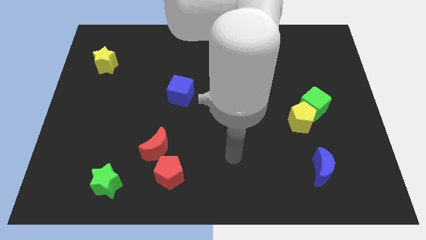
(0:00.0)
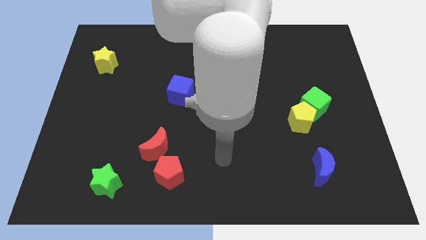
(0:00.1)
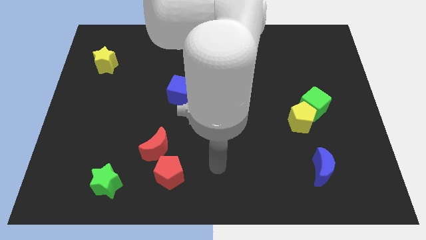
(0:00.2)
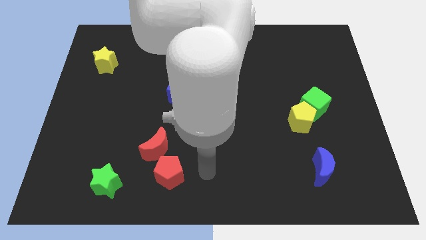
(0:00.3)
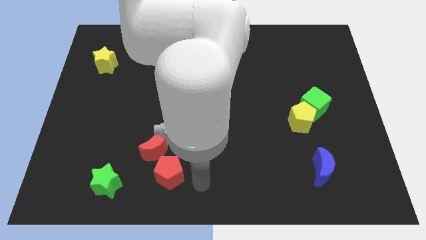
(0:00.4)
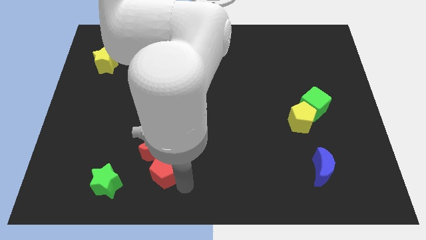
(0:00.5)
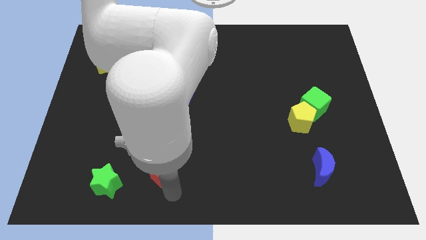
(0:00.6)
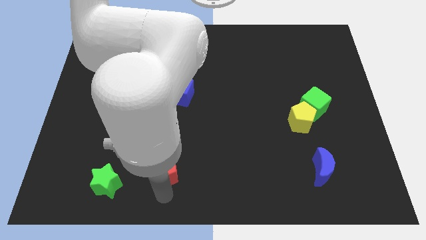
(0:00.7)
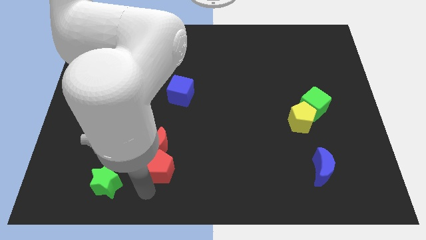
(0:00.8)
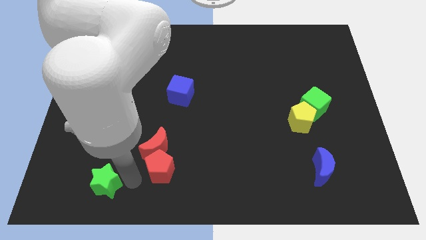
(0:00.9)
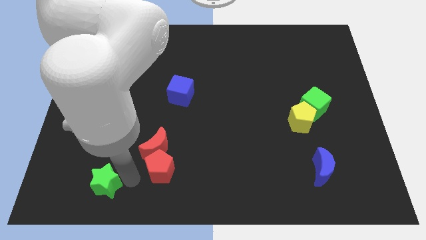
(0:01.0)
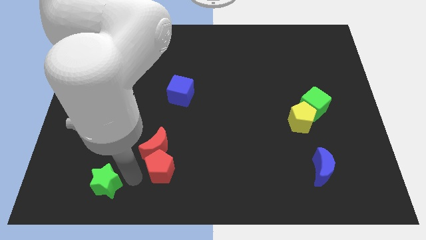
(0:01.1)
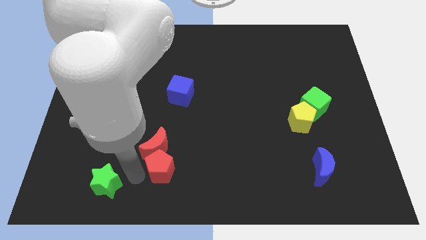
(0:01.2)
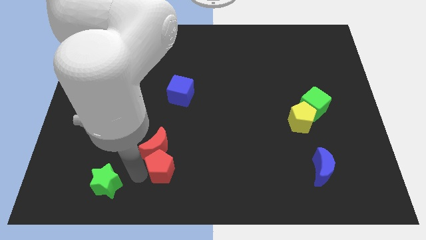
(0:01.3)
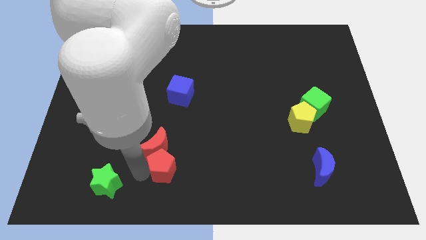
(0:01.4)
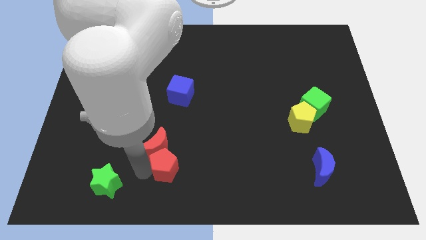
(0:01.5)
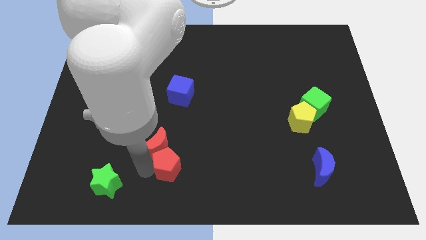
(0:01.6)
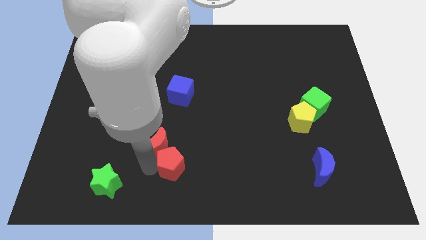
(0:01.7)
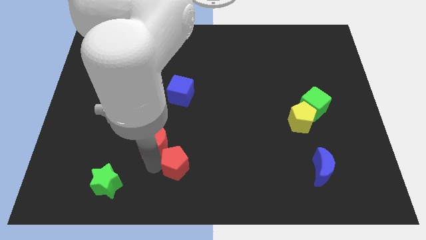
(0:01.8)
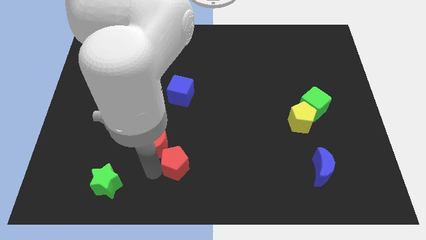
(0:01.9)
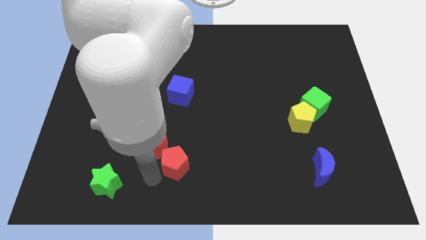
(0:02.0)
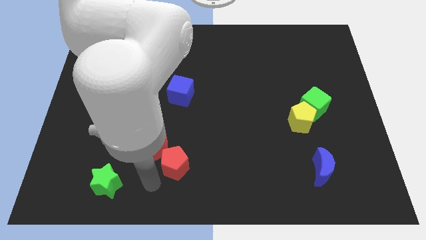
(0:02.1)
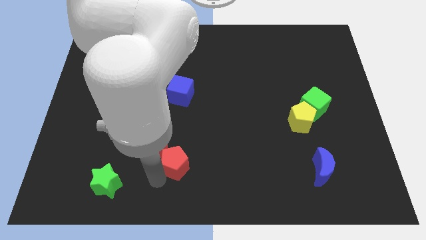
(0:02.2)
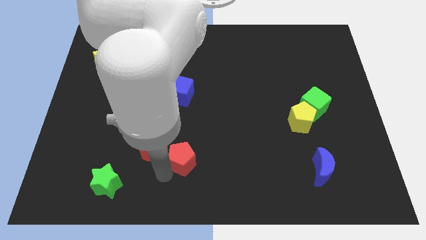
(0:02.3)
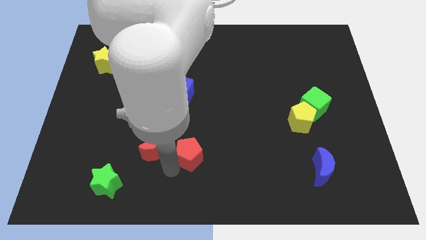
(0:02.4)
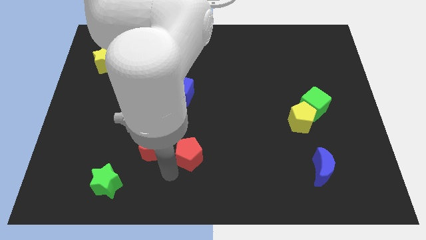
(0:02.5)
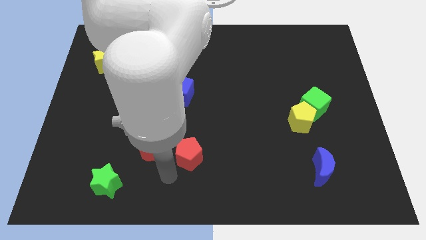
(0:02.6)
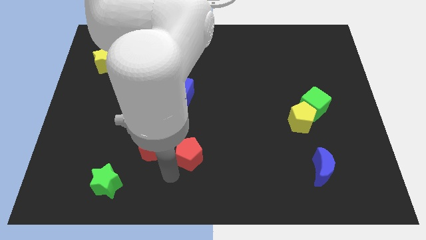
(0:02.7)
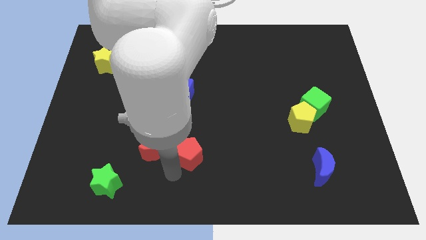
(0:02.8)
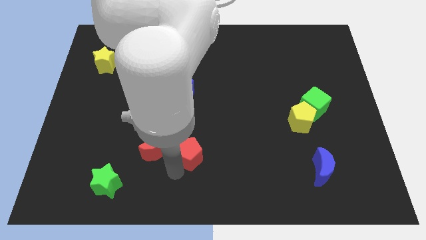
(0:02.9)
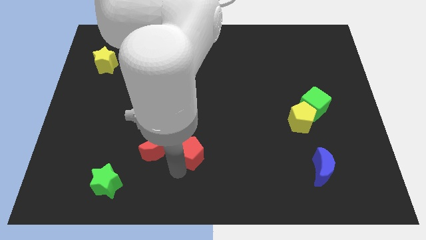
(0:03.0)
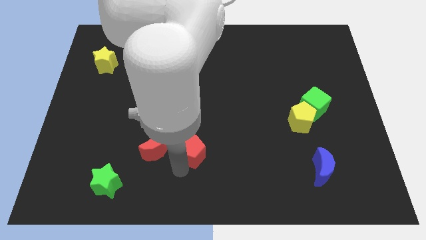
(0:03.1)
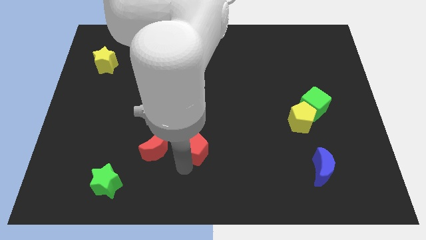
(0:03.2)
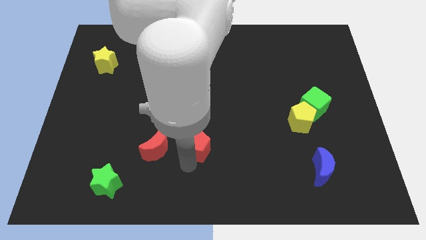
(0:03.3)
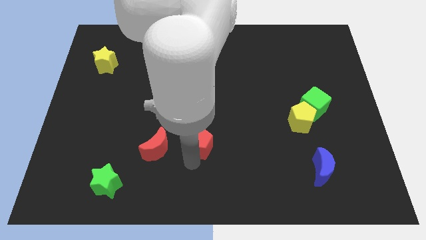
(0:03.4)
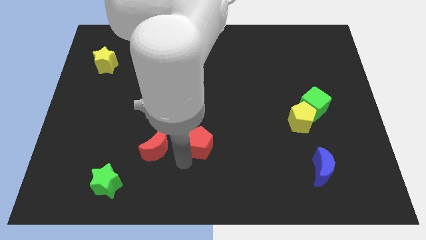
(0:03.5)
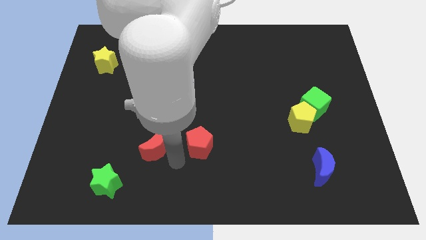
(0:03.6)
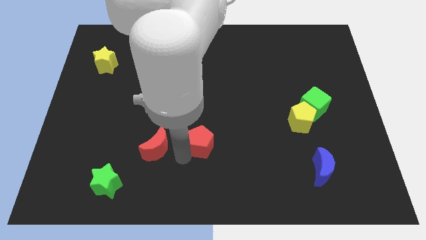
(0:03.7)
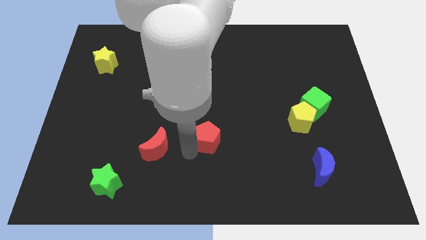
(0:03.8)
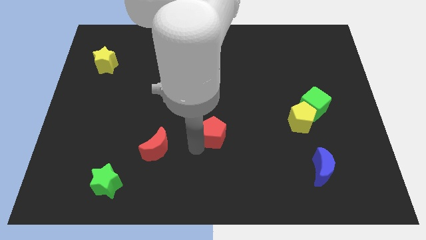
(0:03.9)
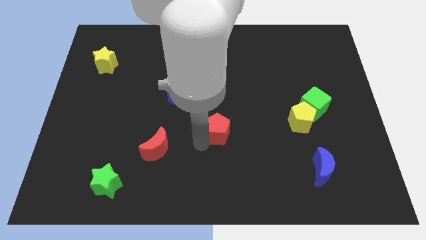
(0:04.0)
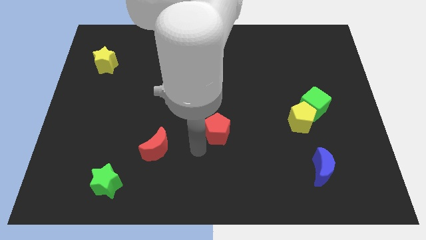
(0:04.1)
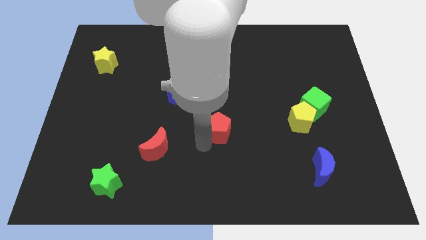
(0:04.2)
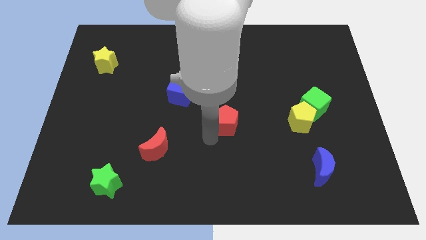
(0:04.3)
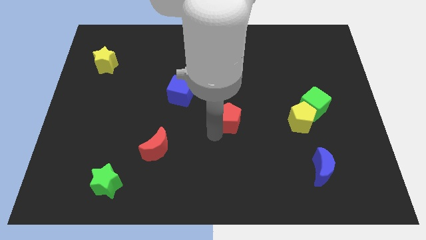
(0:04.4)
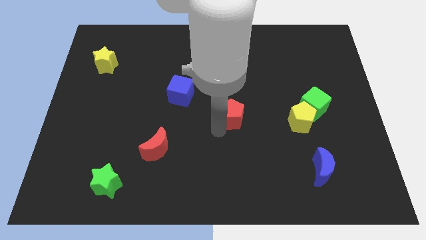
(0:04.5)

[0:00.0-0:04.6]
push the red pentagon up and to the right diagonally

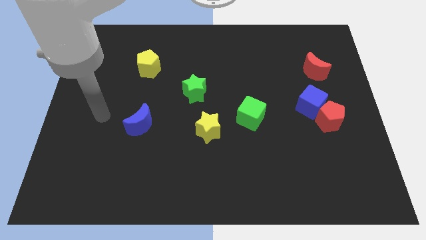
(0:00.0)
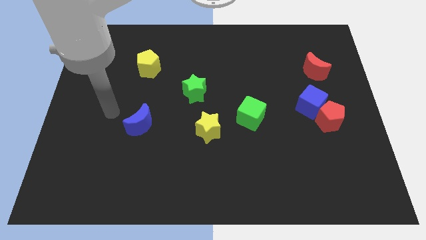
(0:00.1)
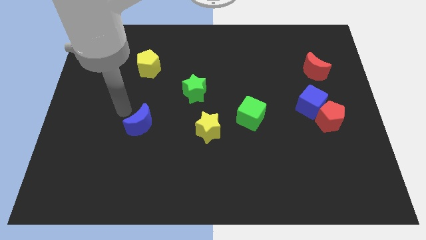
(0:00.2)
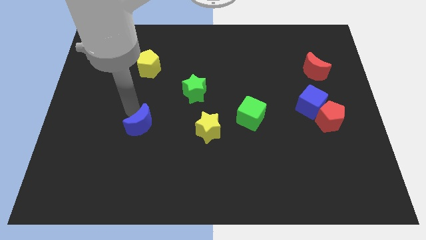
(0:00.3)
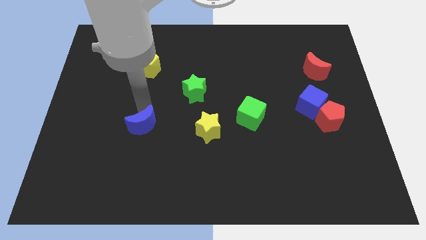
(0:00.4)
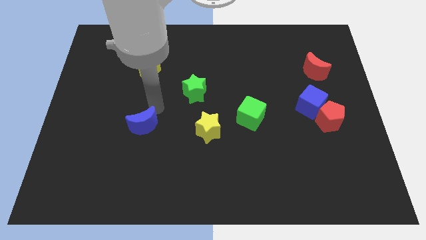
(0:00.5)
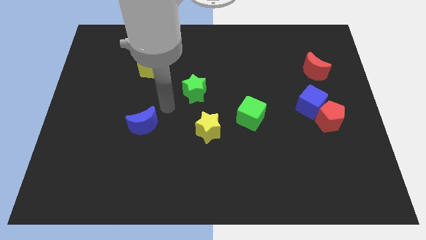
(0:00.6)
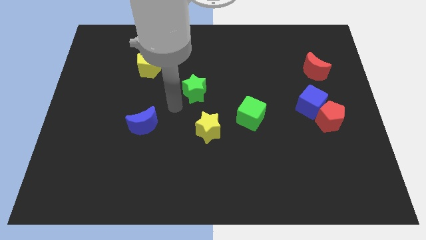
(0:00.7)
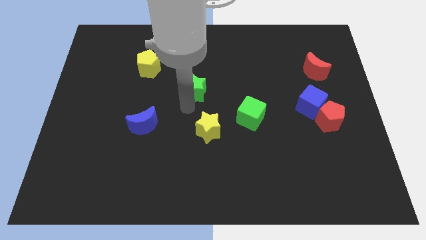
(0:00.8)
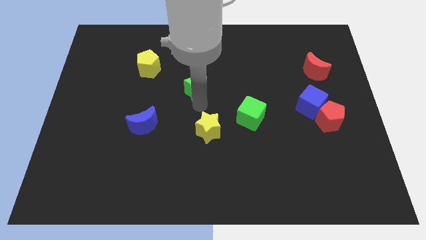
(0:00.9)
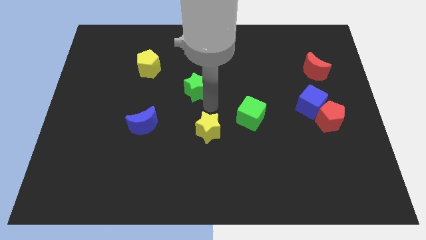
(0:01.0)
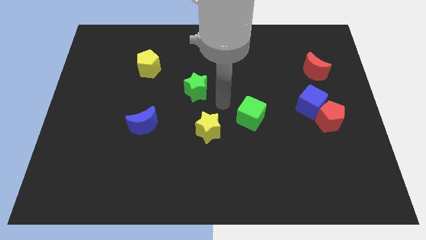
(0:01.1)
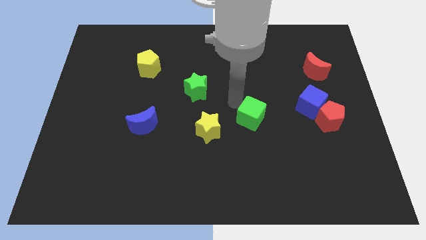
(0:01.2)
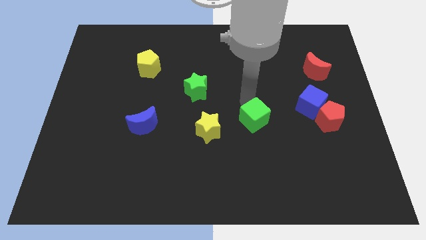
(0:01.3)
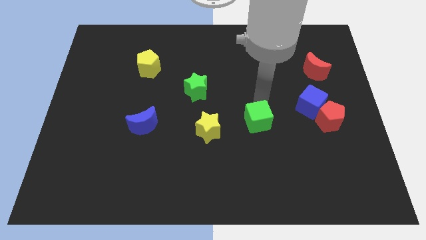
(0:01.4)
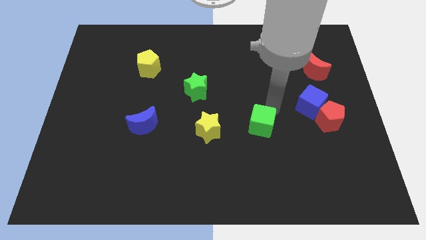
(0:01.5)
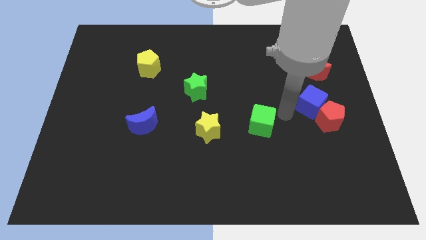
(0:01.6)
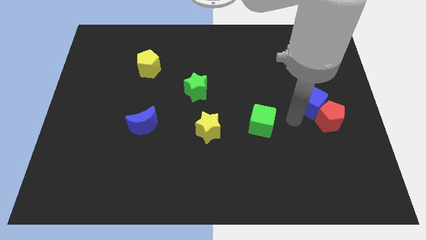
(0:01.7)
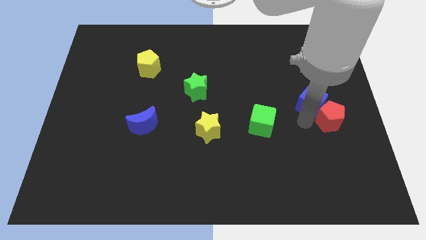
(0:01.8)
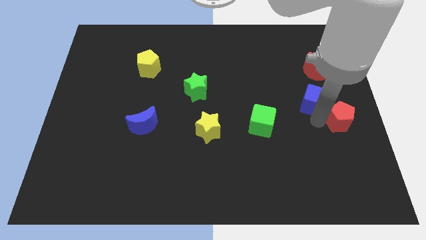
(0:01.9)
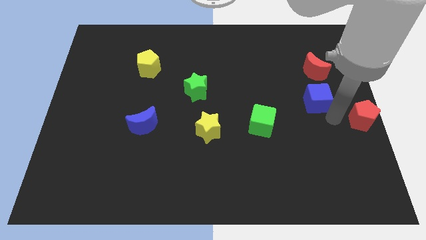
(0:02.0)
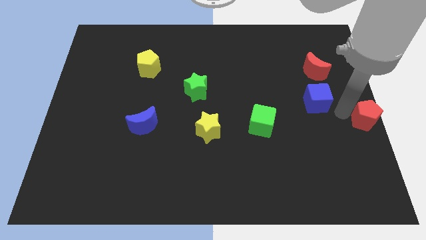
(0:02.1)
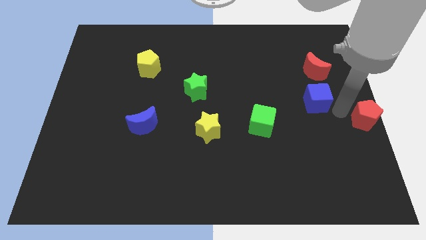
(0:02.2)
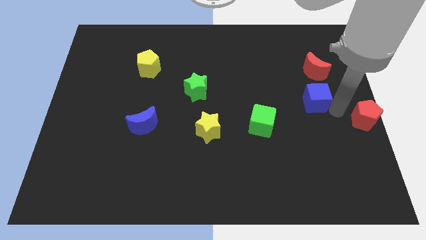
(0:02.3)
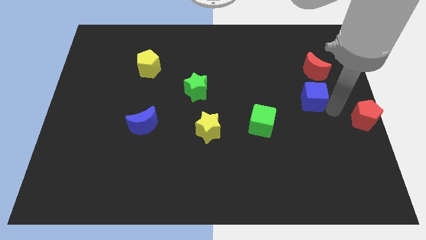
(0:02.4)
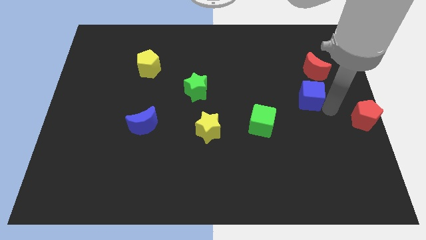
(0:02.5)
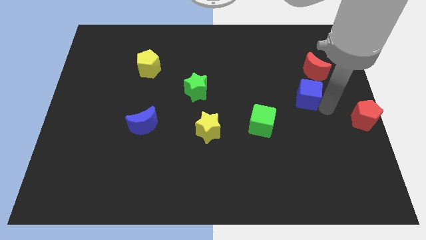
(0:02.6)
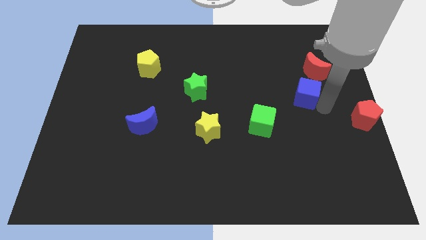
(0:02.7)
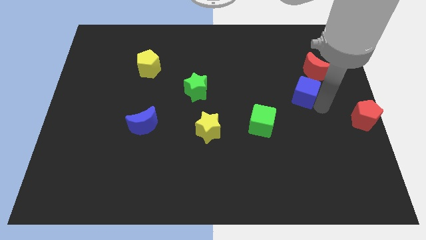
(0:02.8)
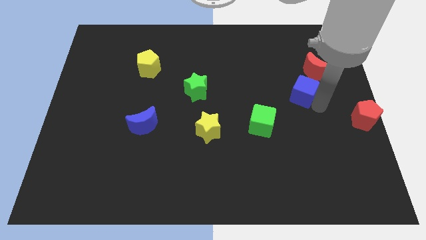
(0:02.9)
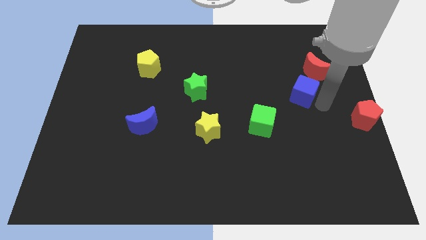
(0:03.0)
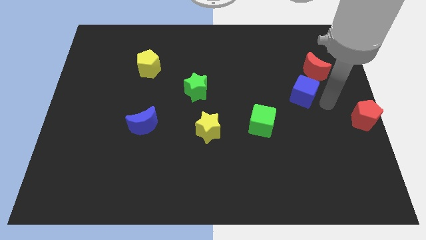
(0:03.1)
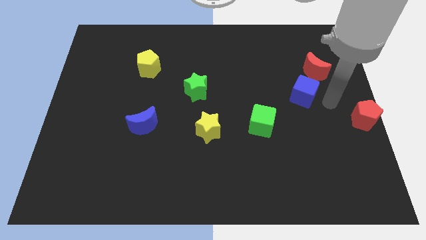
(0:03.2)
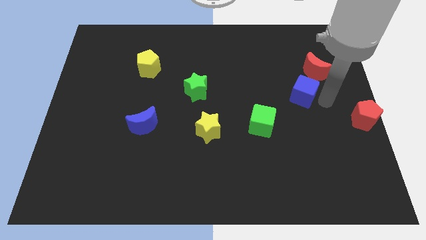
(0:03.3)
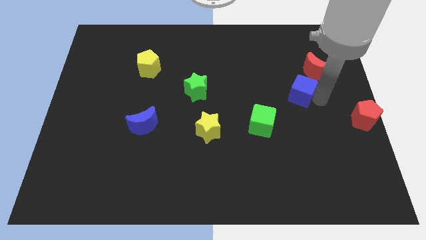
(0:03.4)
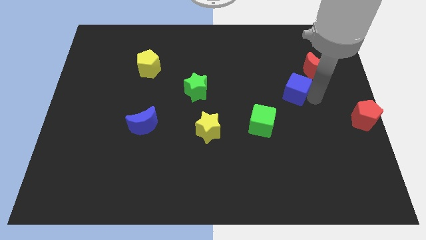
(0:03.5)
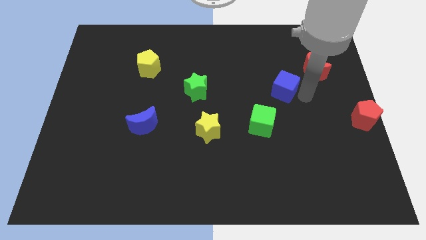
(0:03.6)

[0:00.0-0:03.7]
slightly slide the blue cube diagonally upwards and left
